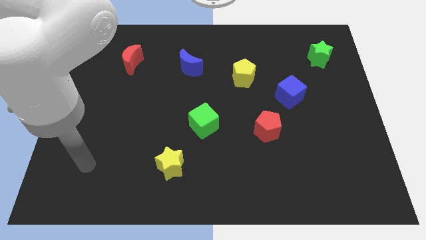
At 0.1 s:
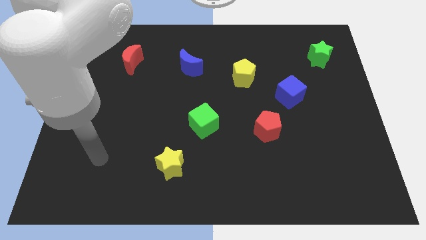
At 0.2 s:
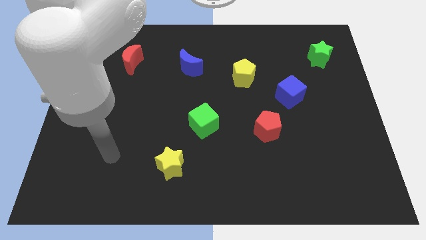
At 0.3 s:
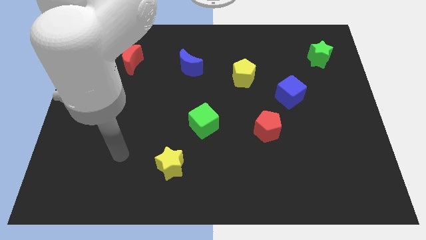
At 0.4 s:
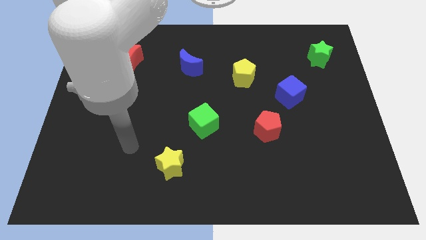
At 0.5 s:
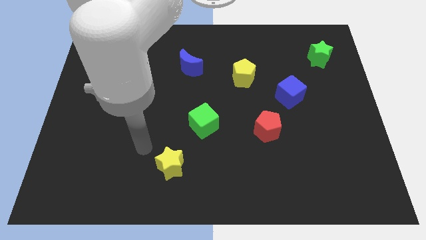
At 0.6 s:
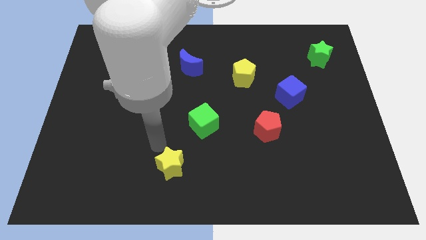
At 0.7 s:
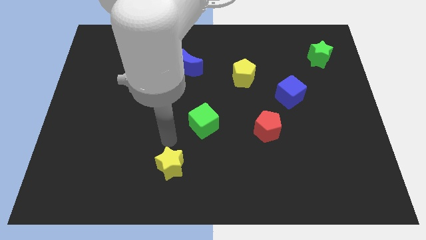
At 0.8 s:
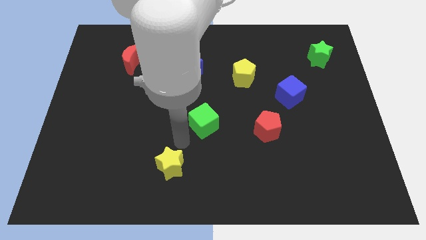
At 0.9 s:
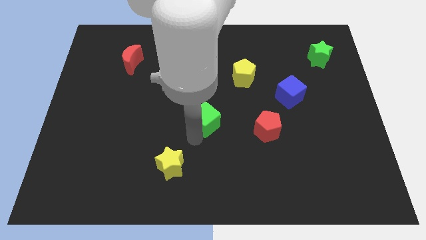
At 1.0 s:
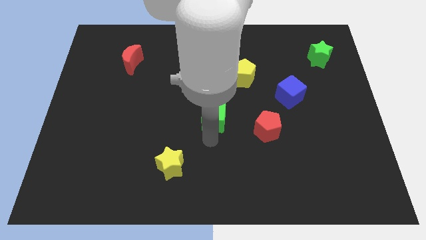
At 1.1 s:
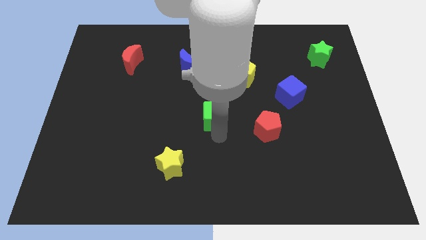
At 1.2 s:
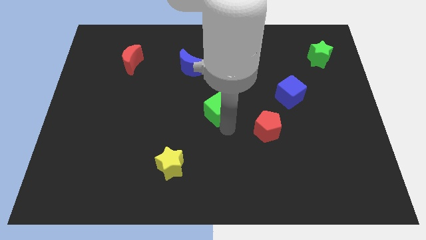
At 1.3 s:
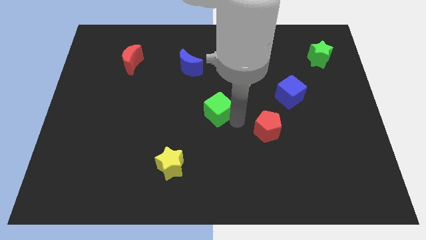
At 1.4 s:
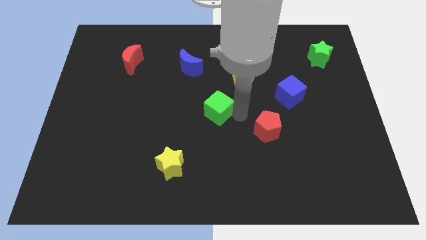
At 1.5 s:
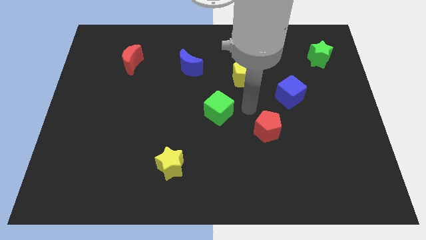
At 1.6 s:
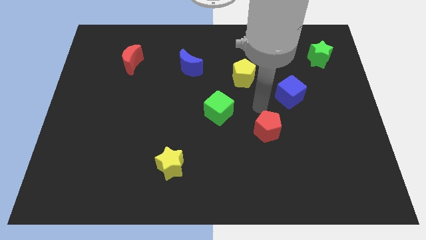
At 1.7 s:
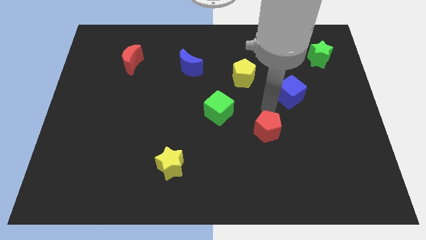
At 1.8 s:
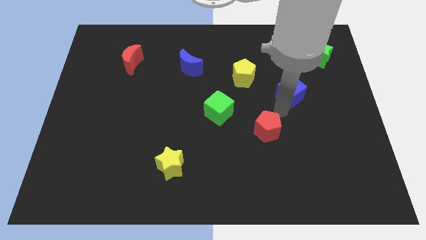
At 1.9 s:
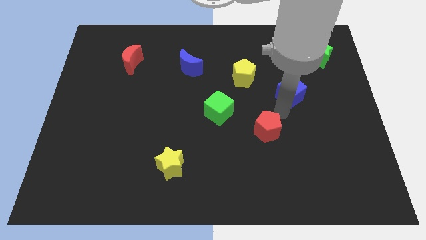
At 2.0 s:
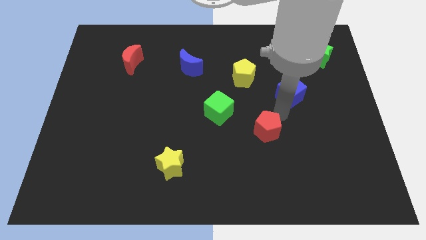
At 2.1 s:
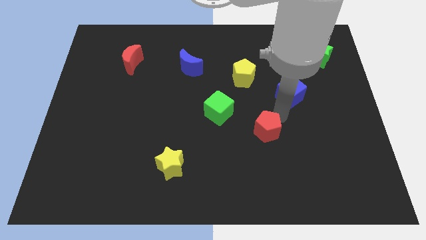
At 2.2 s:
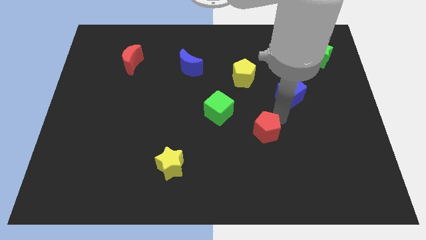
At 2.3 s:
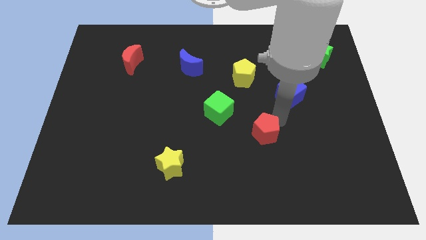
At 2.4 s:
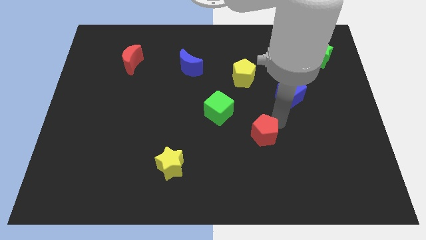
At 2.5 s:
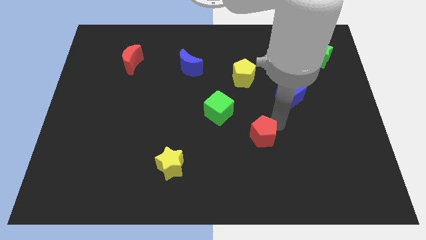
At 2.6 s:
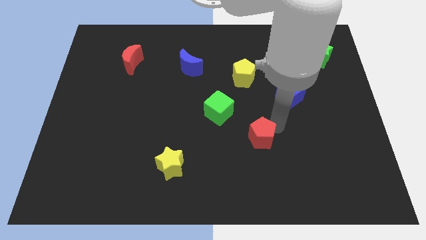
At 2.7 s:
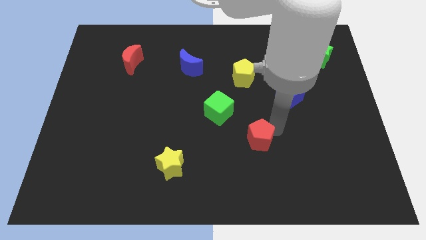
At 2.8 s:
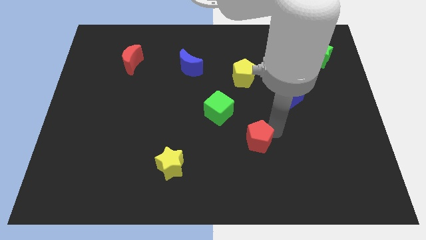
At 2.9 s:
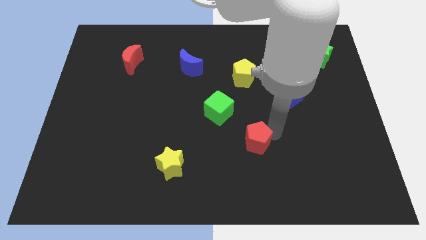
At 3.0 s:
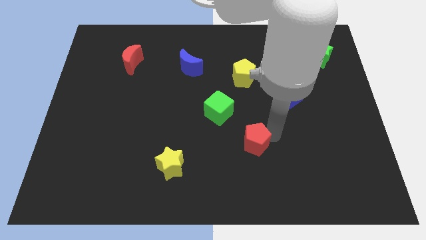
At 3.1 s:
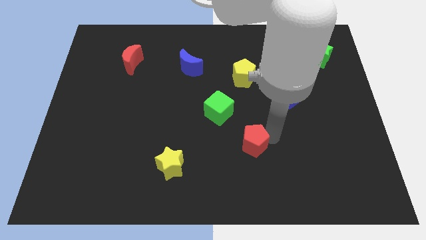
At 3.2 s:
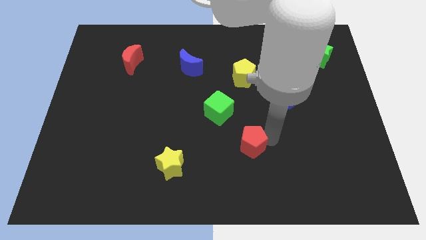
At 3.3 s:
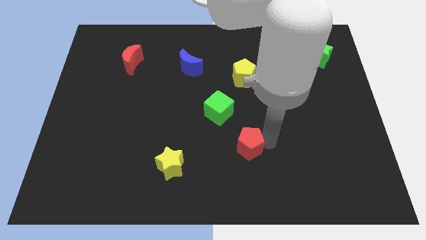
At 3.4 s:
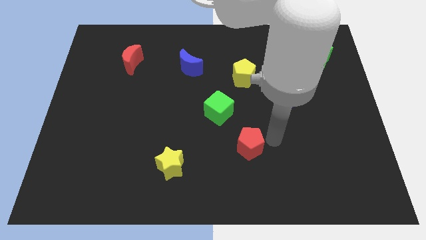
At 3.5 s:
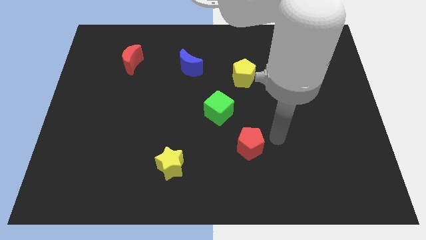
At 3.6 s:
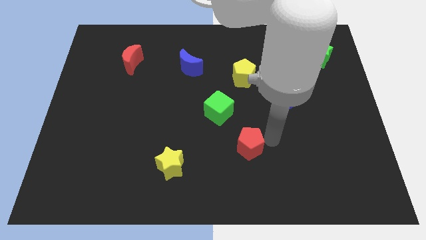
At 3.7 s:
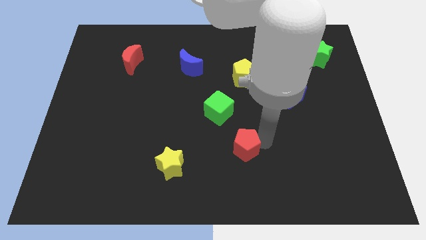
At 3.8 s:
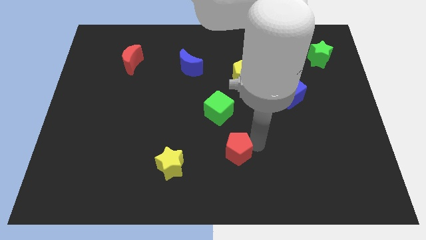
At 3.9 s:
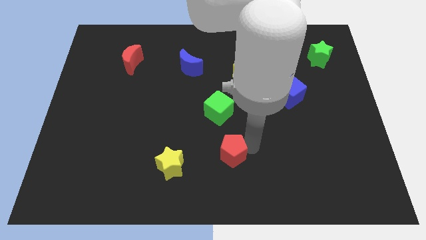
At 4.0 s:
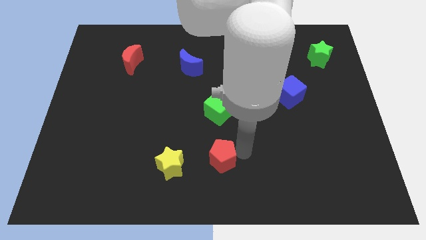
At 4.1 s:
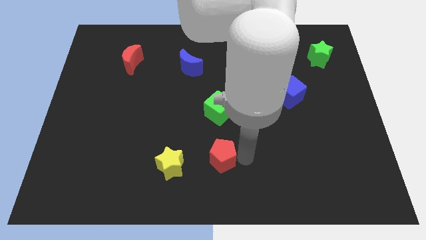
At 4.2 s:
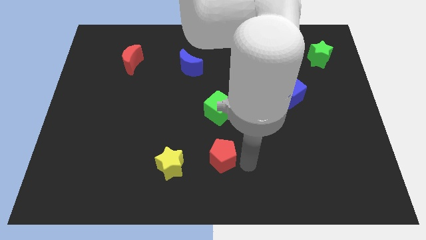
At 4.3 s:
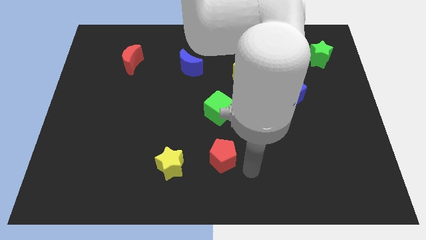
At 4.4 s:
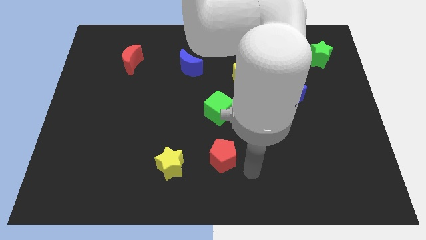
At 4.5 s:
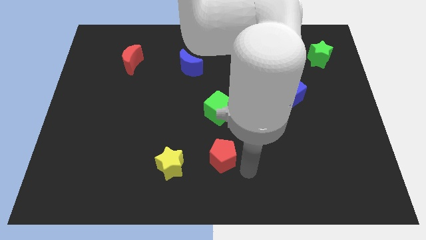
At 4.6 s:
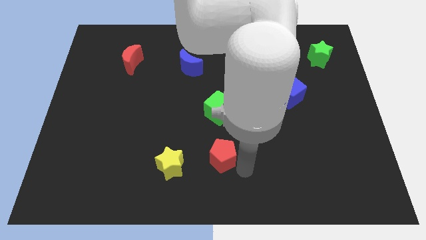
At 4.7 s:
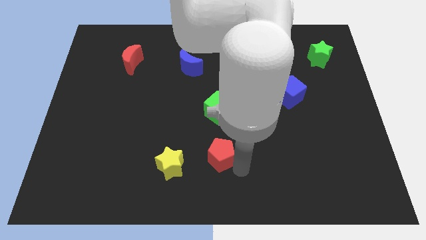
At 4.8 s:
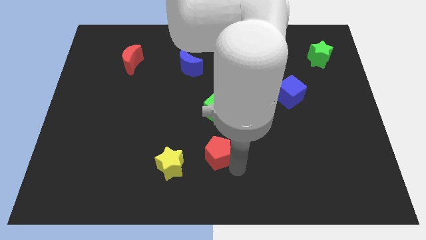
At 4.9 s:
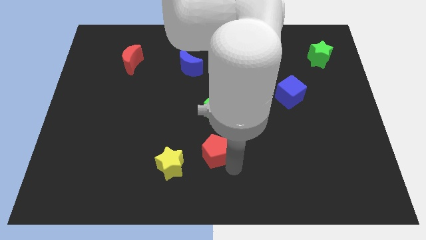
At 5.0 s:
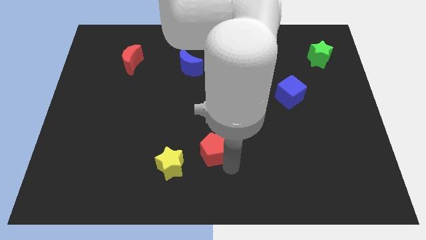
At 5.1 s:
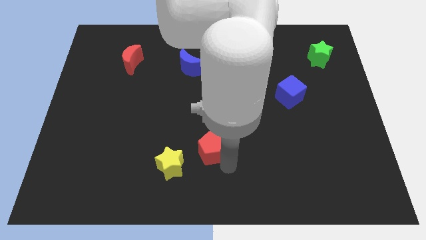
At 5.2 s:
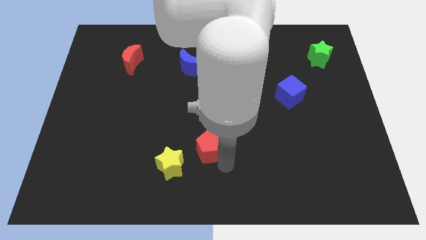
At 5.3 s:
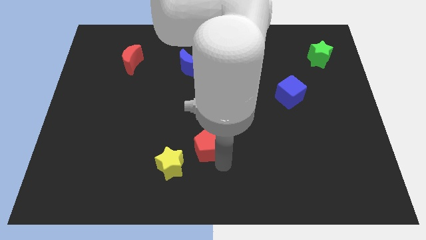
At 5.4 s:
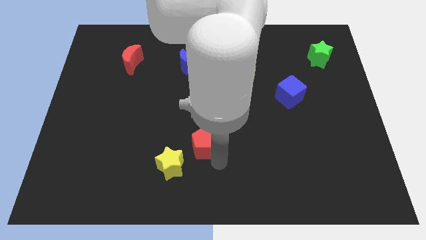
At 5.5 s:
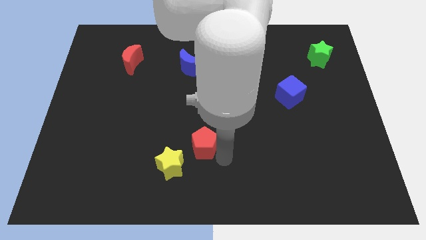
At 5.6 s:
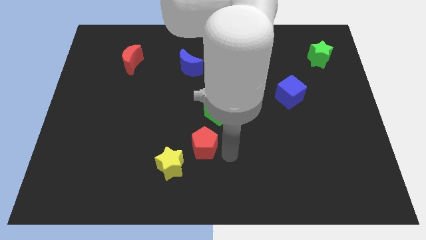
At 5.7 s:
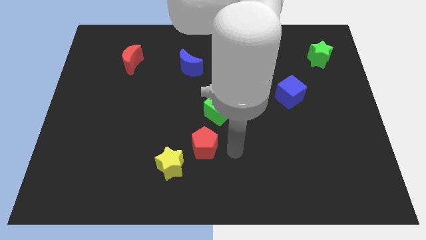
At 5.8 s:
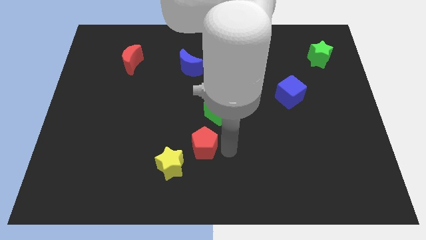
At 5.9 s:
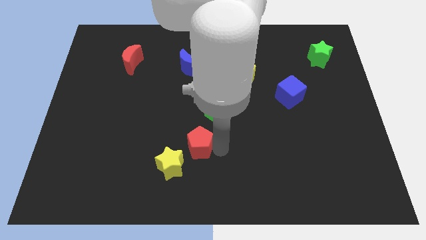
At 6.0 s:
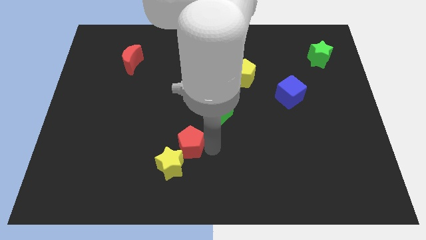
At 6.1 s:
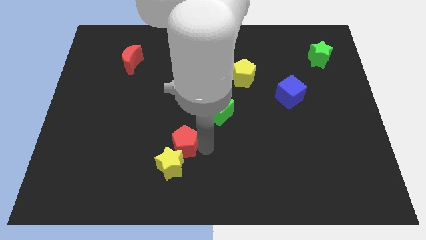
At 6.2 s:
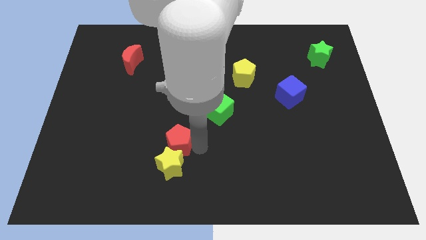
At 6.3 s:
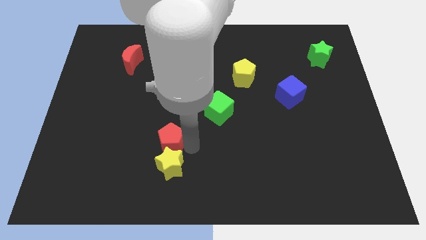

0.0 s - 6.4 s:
push the red pentagon left

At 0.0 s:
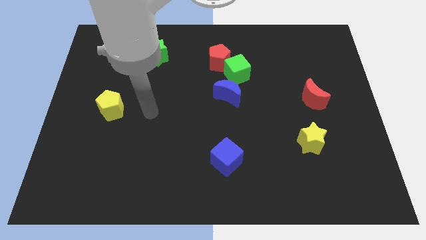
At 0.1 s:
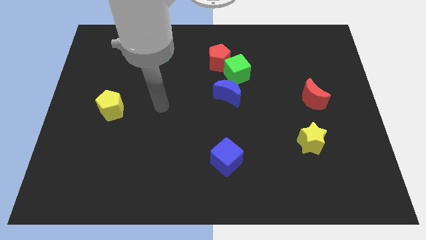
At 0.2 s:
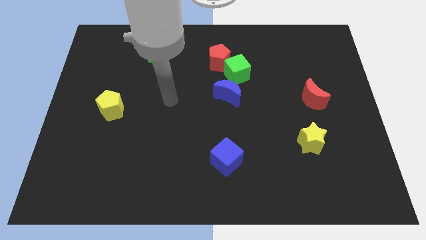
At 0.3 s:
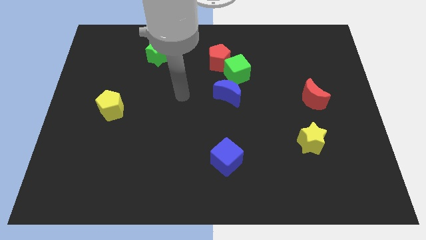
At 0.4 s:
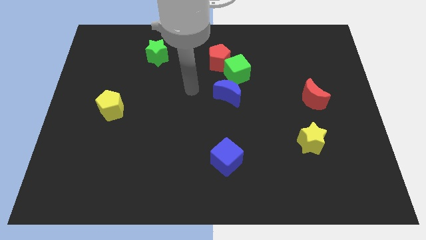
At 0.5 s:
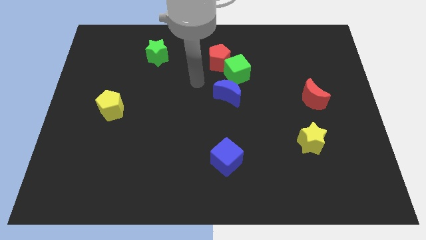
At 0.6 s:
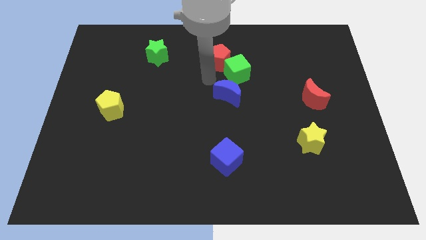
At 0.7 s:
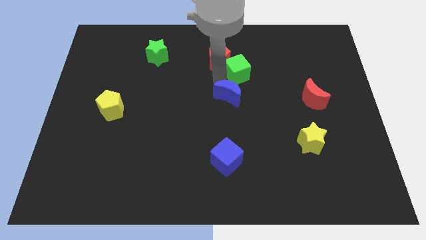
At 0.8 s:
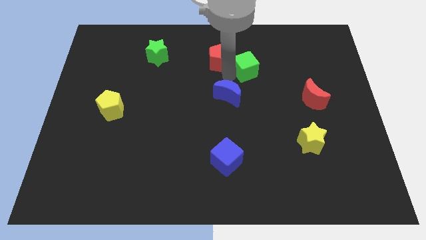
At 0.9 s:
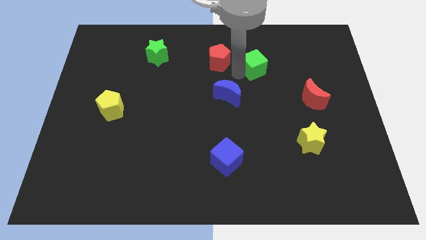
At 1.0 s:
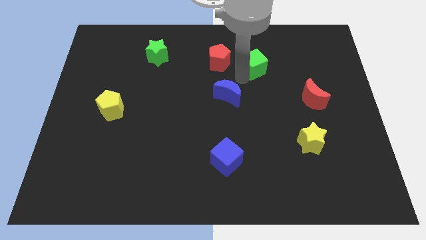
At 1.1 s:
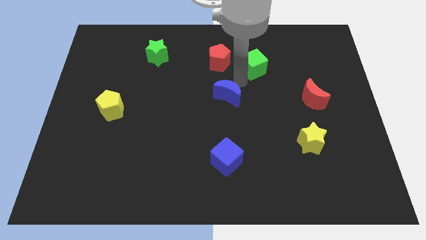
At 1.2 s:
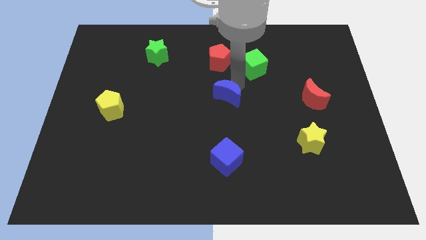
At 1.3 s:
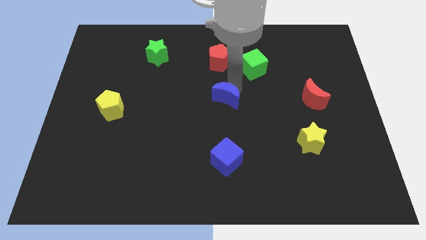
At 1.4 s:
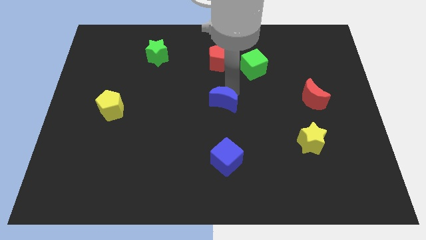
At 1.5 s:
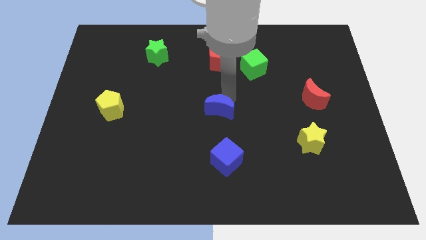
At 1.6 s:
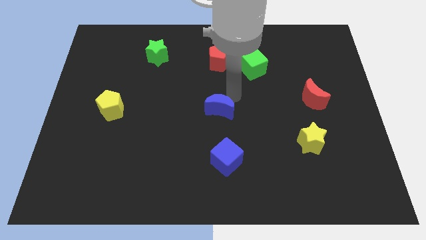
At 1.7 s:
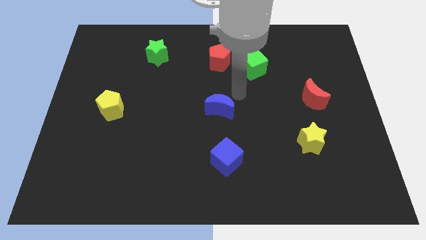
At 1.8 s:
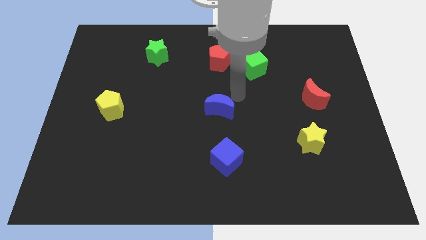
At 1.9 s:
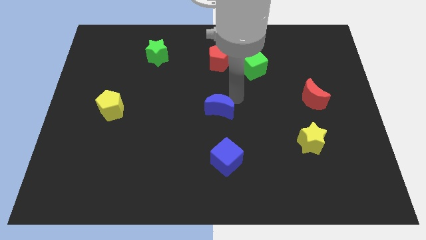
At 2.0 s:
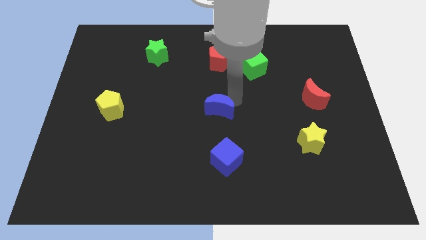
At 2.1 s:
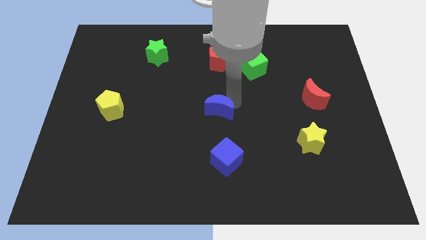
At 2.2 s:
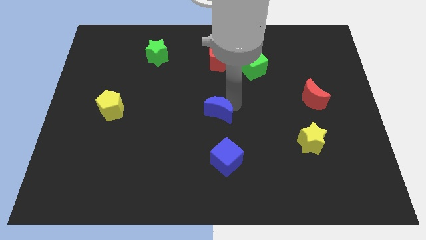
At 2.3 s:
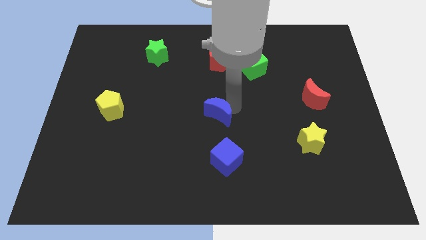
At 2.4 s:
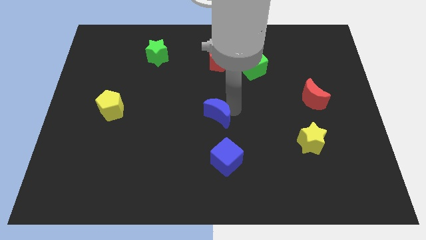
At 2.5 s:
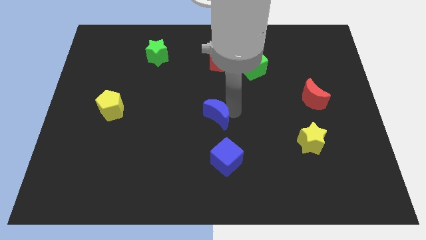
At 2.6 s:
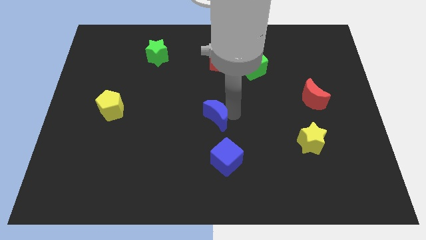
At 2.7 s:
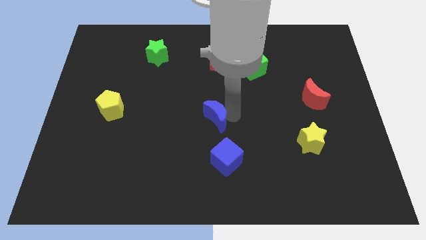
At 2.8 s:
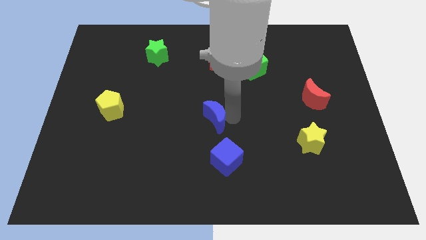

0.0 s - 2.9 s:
slightly push the blue moon down and left
